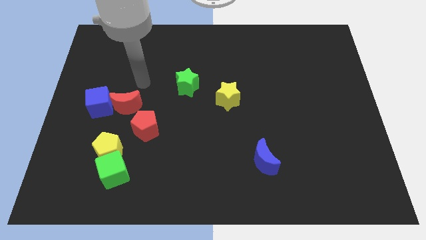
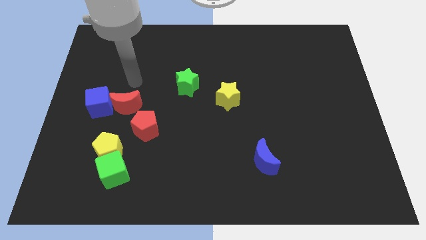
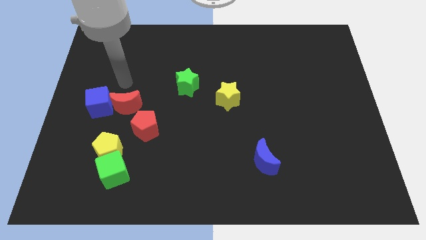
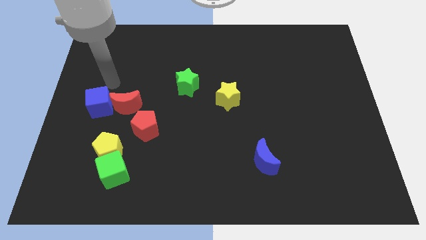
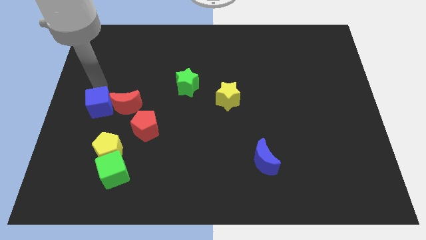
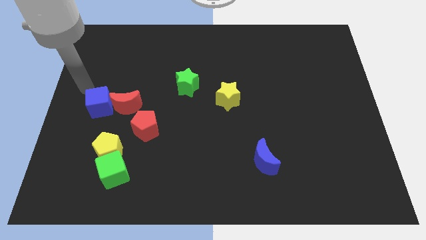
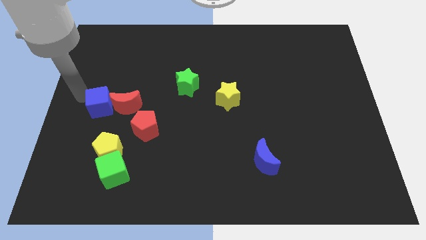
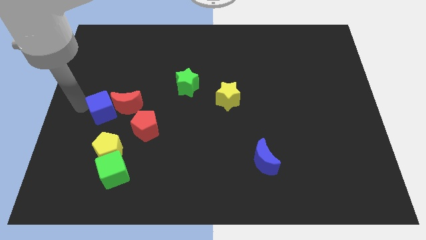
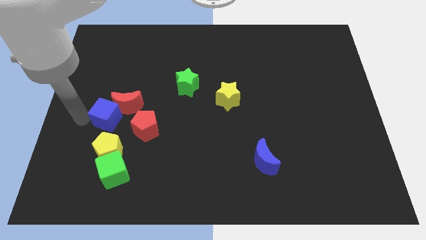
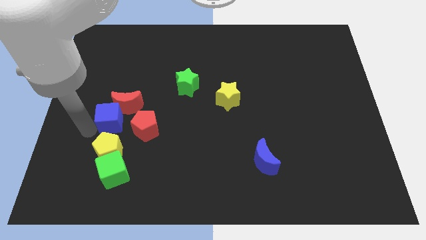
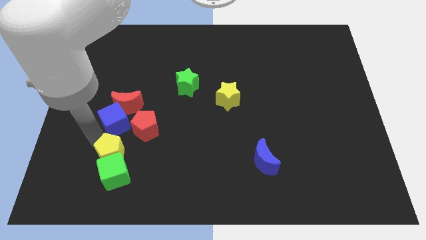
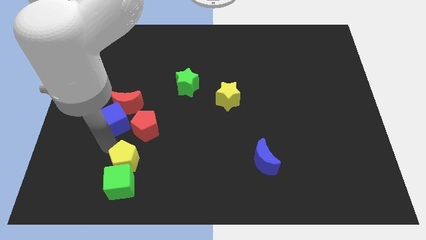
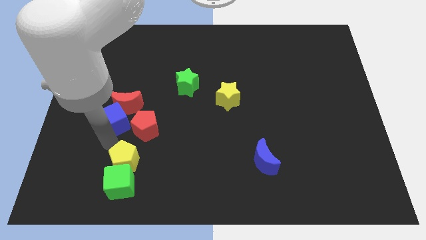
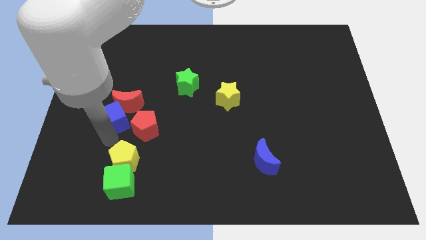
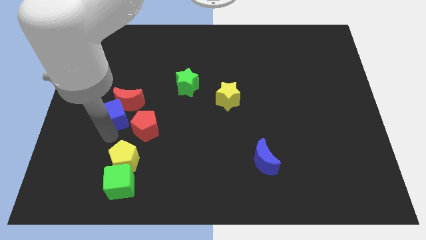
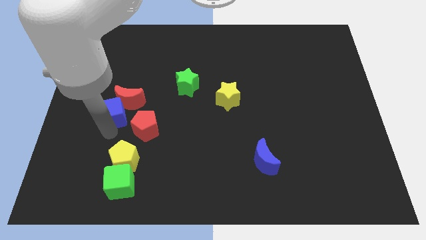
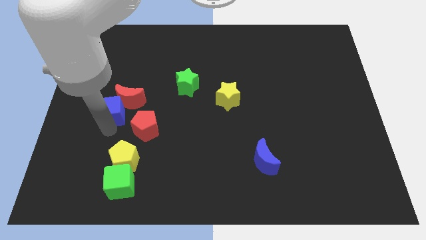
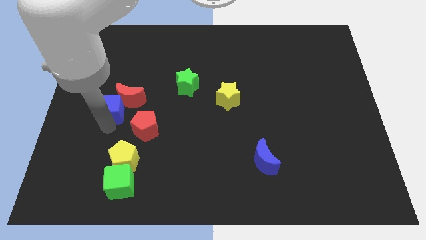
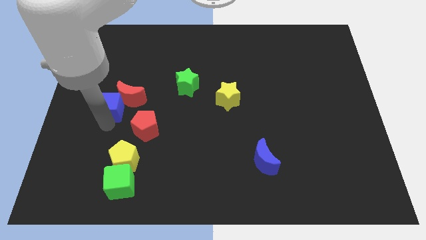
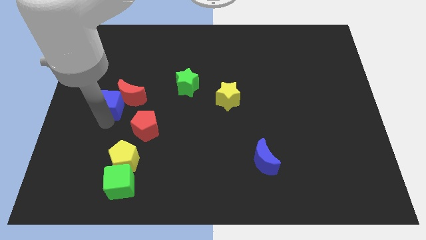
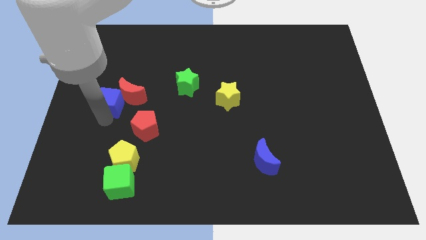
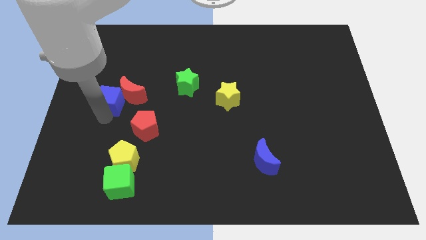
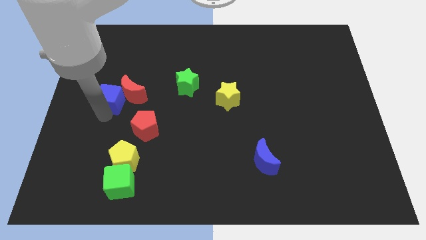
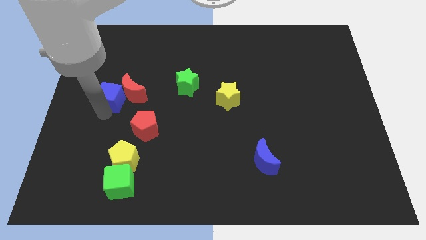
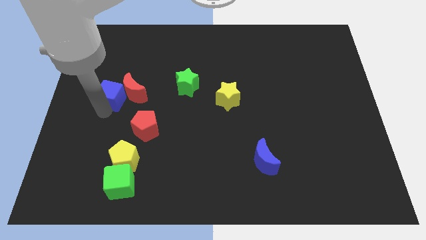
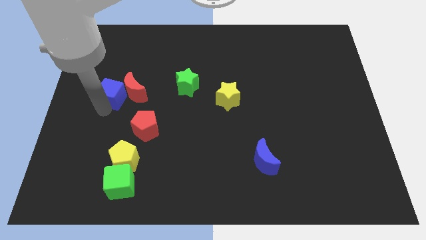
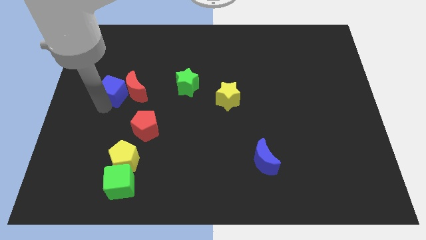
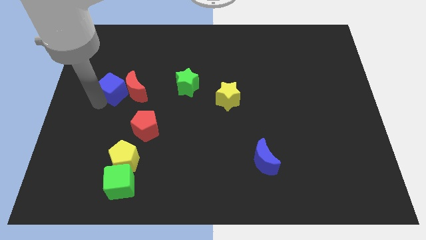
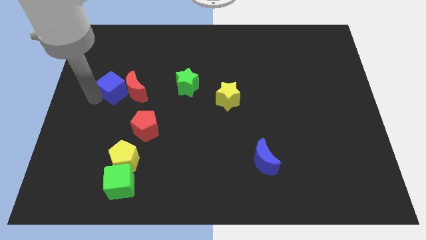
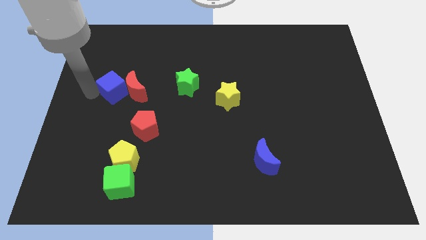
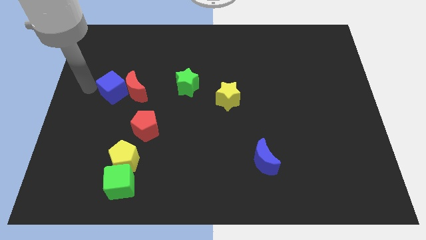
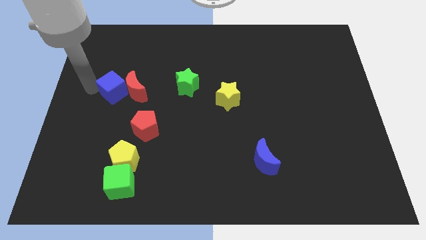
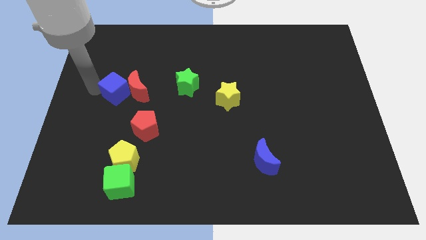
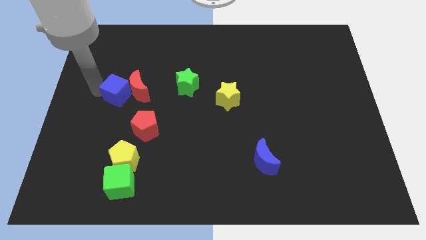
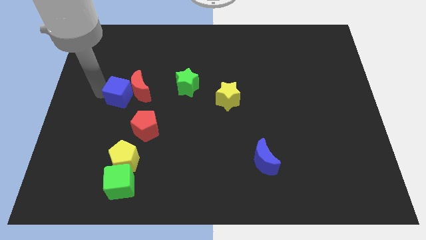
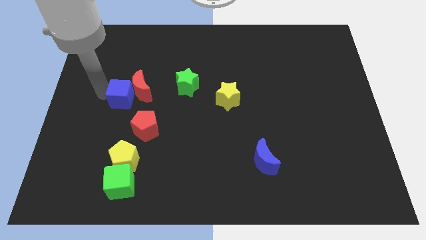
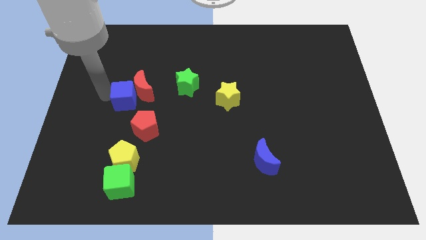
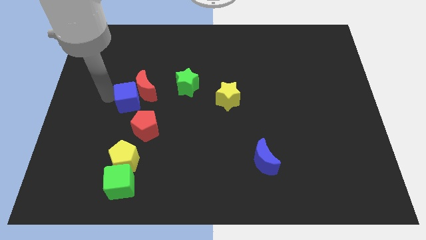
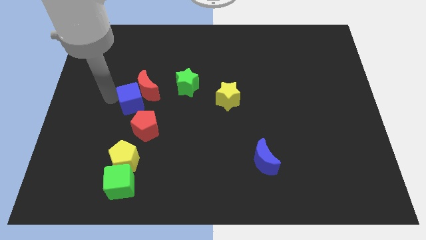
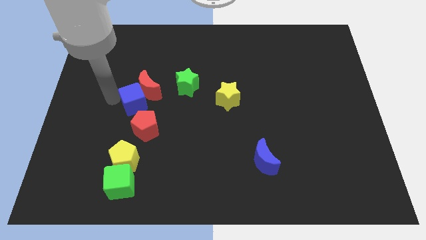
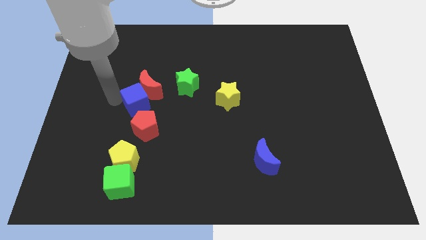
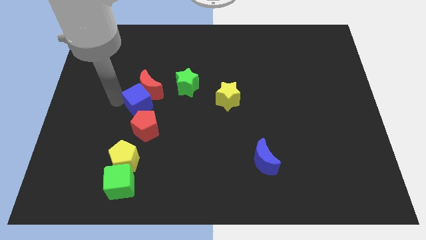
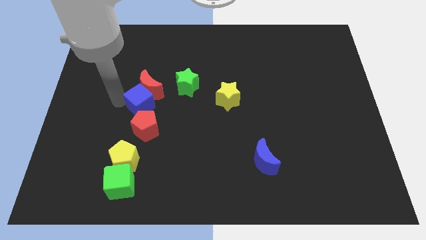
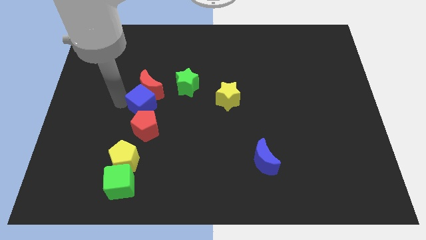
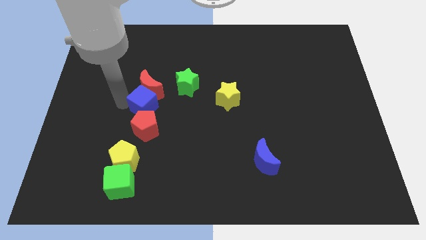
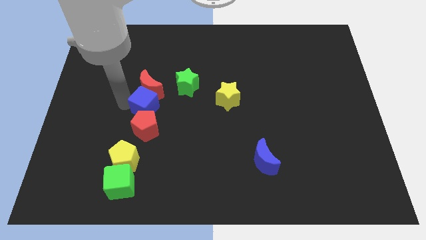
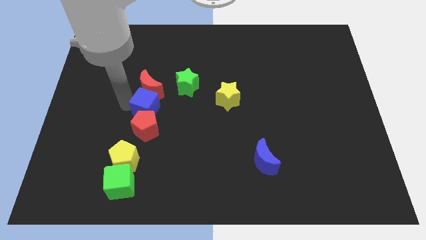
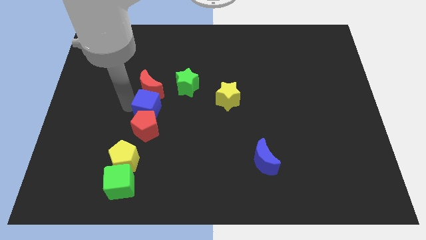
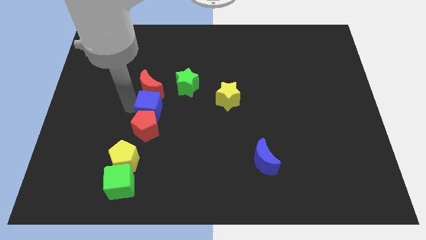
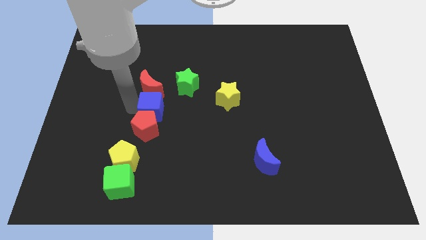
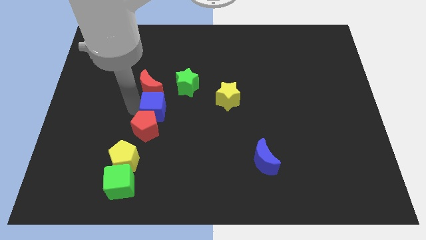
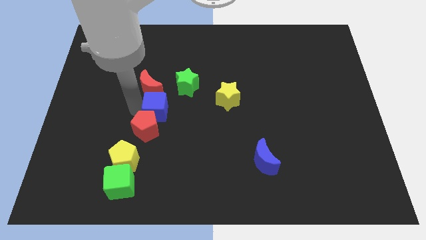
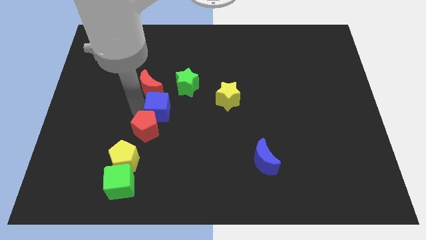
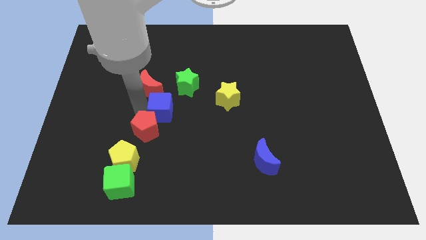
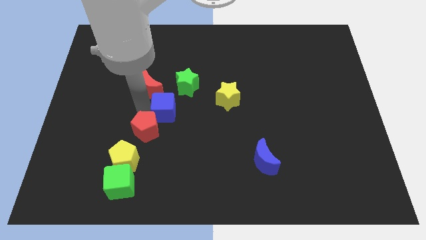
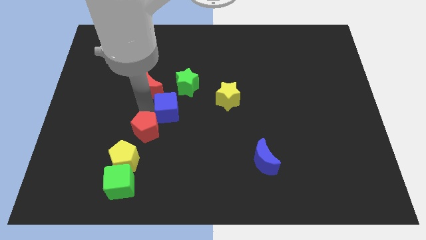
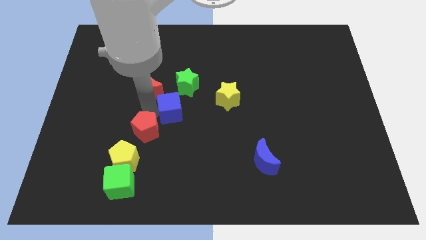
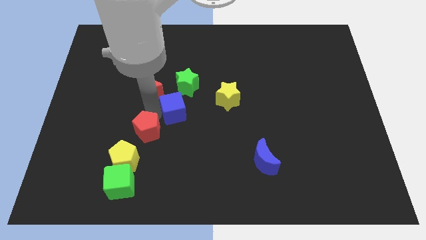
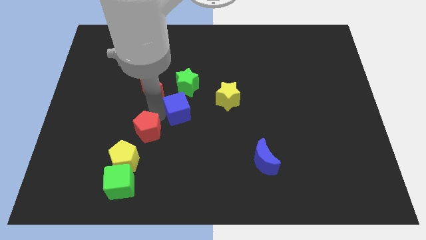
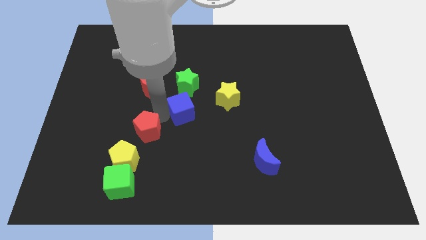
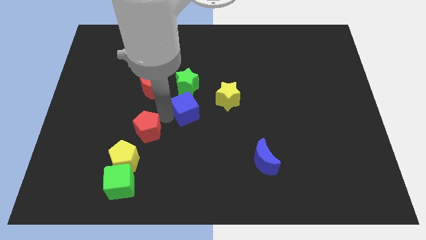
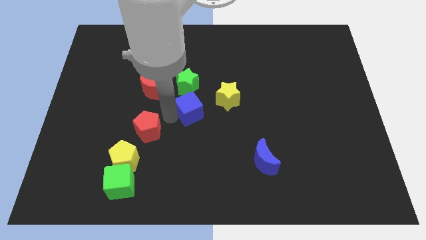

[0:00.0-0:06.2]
put the blue cube diagonally down and to the right of the green star

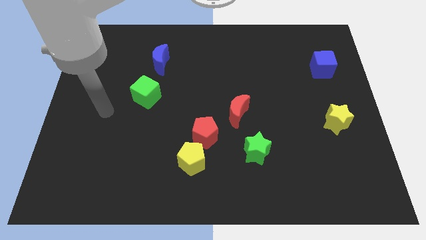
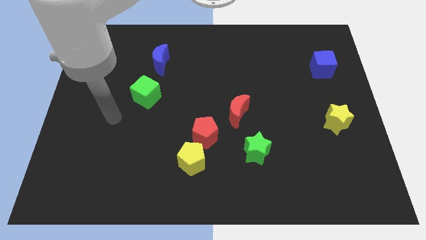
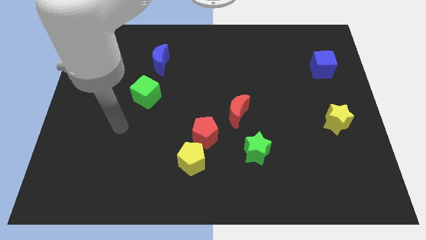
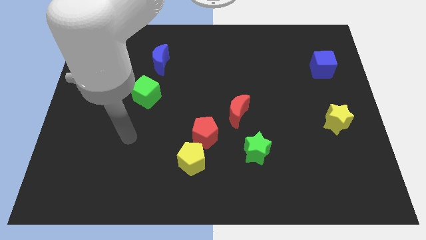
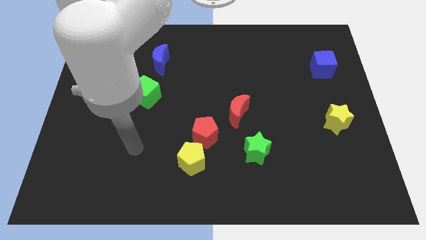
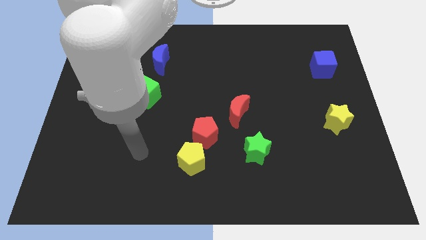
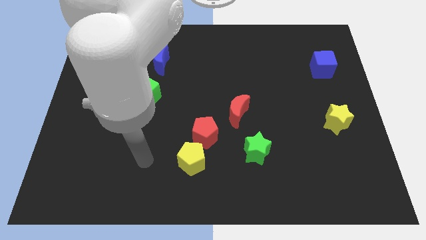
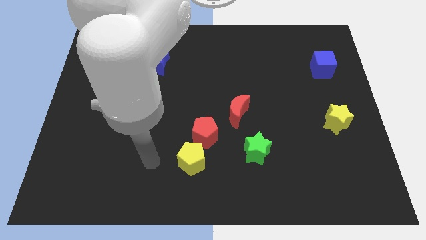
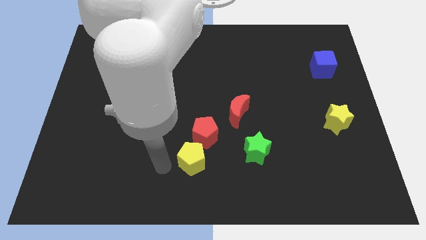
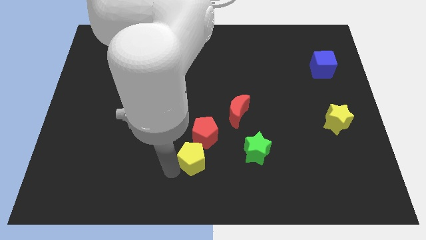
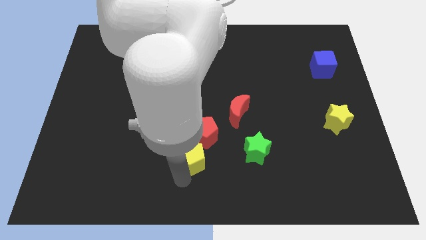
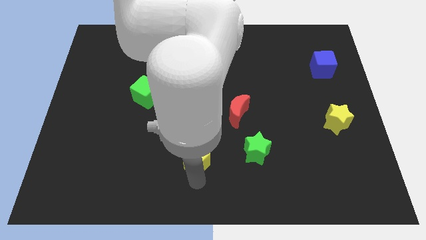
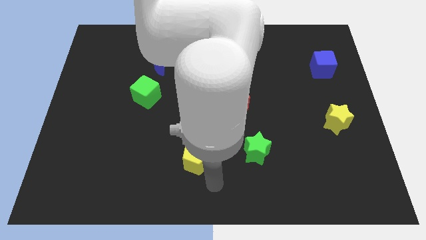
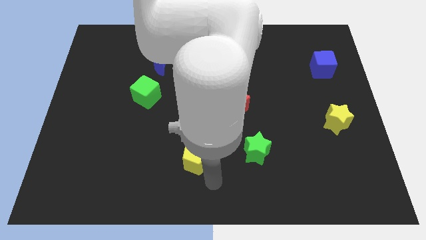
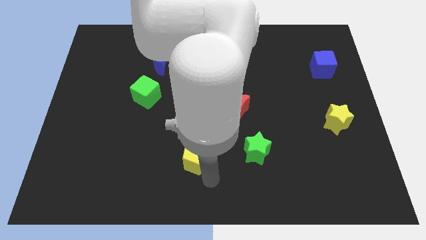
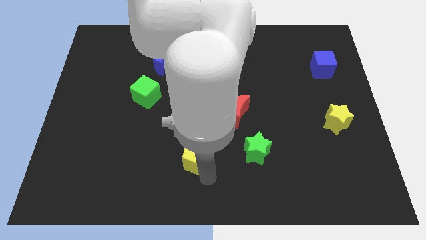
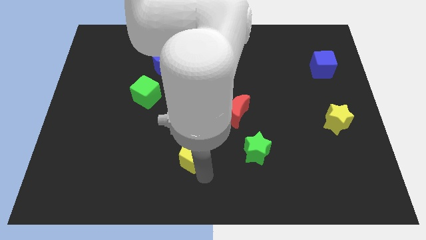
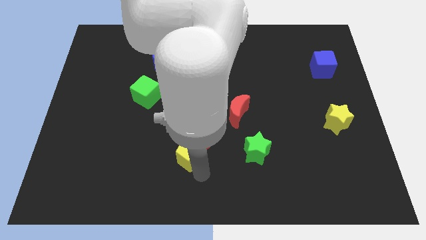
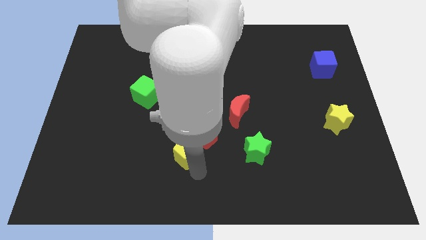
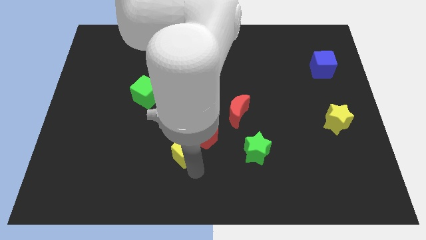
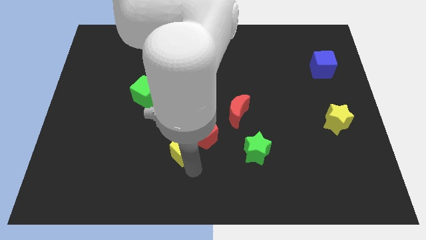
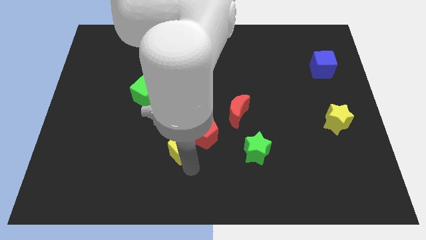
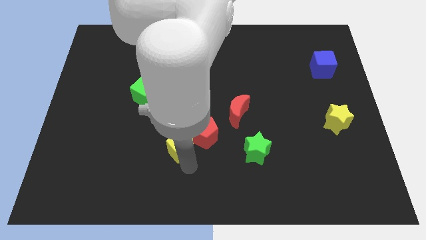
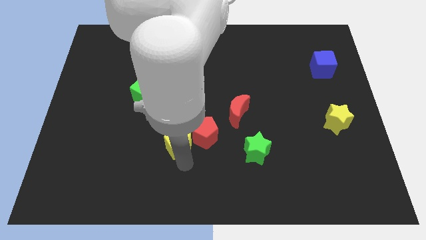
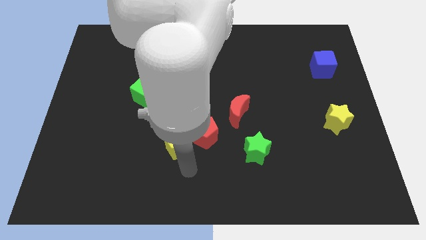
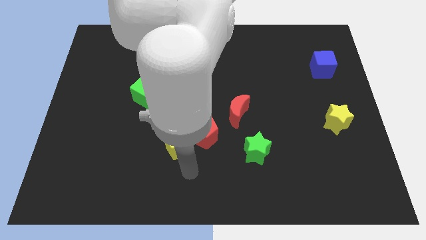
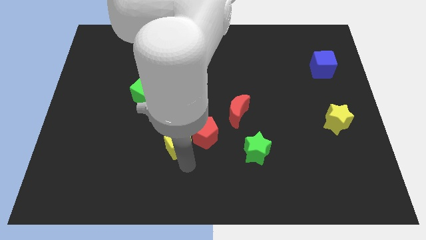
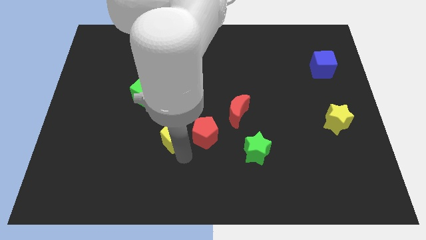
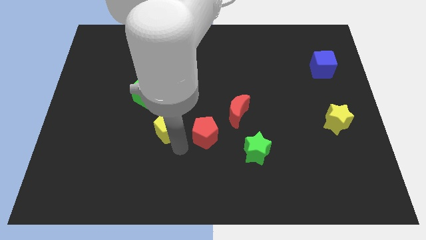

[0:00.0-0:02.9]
move the yellow pentagon to the bottom right side of the green cube
